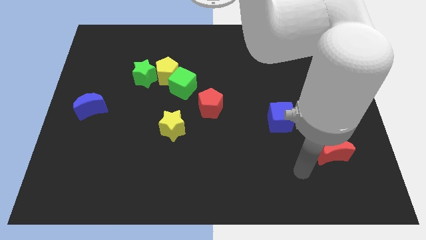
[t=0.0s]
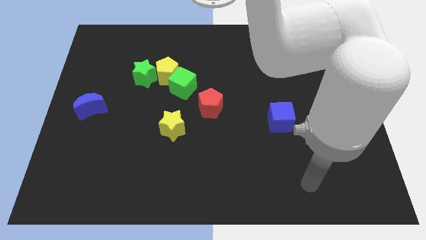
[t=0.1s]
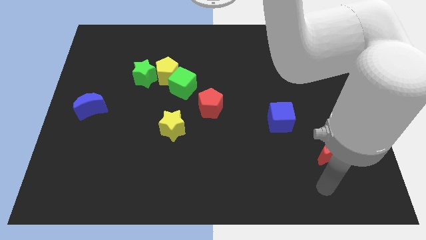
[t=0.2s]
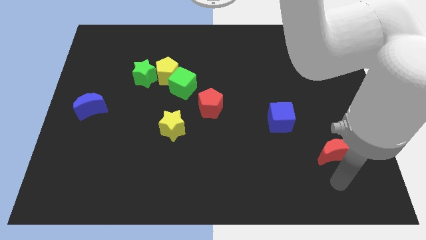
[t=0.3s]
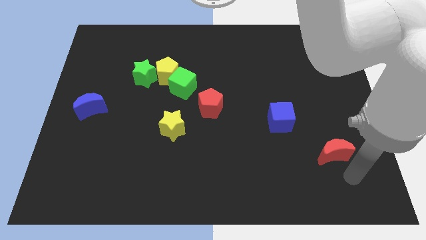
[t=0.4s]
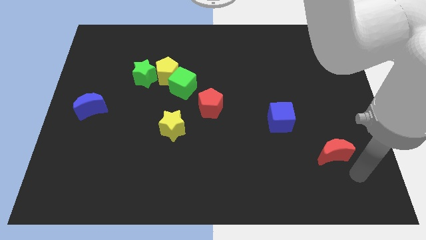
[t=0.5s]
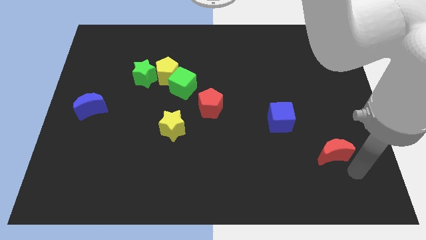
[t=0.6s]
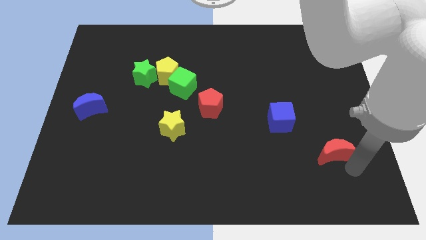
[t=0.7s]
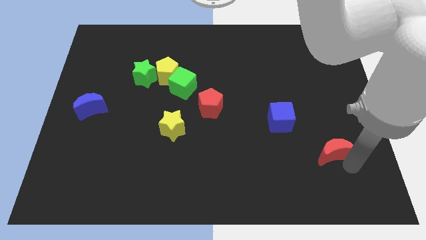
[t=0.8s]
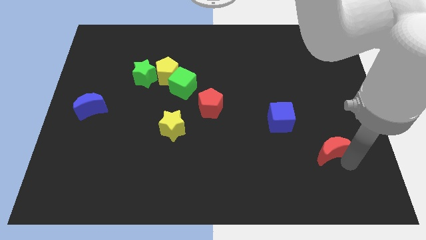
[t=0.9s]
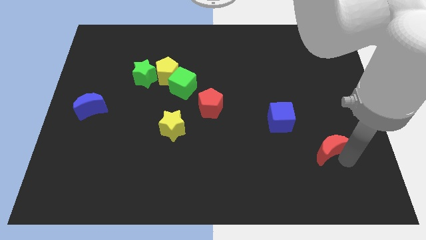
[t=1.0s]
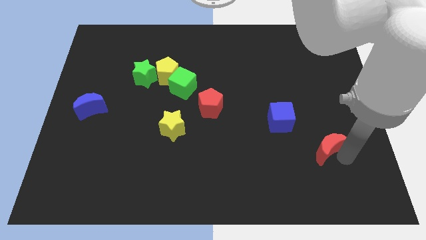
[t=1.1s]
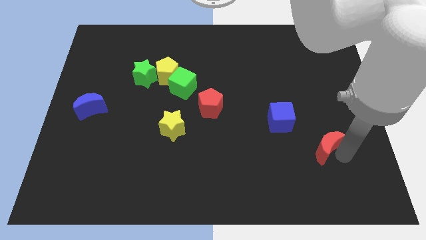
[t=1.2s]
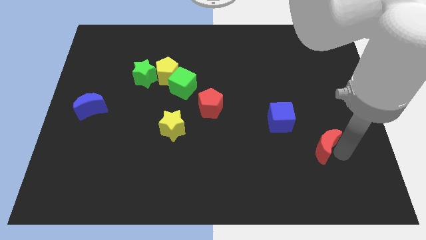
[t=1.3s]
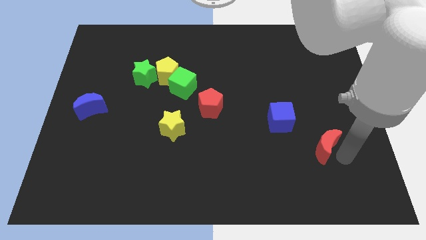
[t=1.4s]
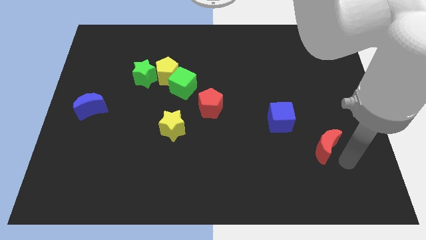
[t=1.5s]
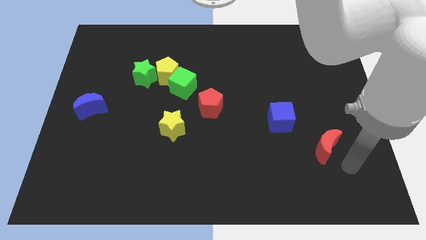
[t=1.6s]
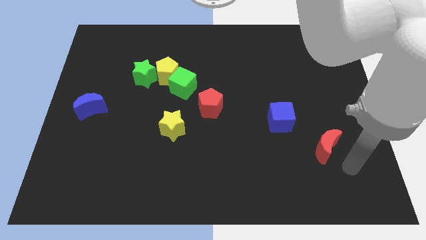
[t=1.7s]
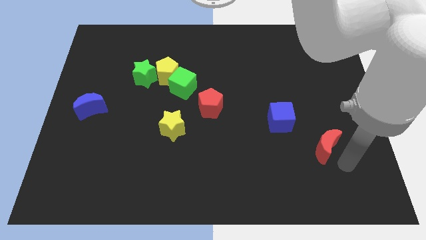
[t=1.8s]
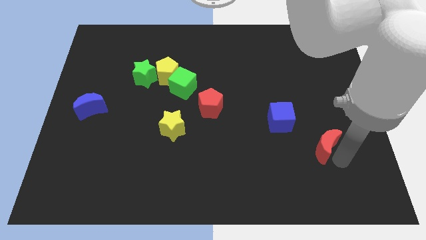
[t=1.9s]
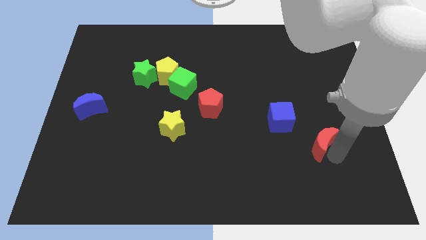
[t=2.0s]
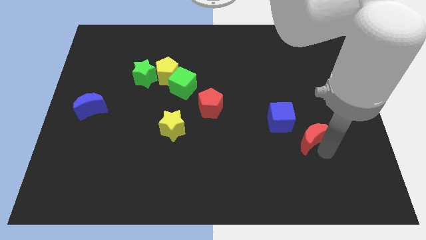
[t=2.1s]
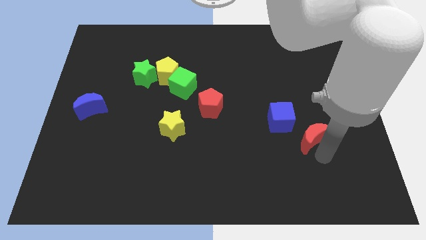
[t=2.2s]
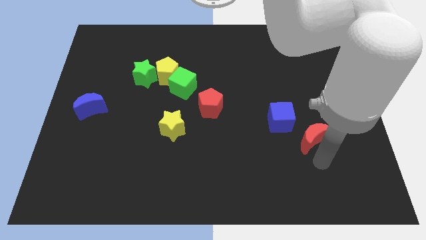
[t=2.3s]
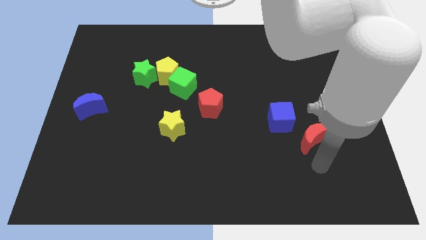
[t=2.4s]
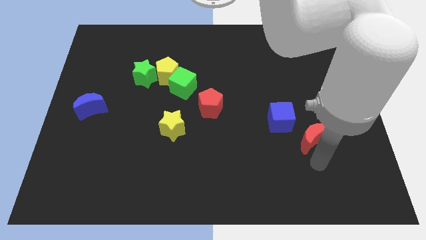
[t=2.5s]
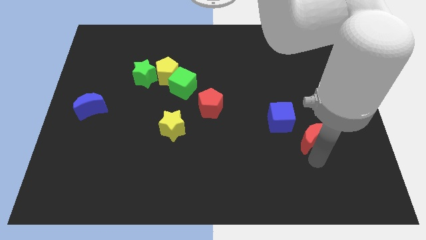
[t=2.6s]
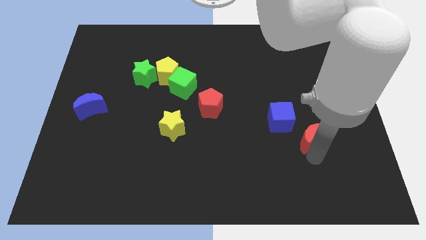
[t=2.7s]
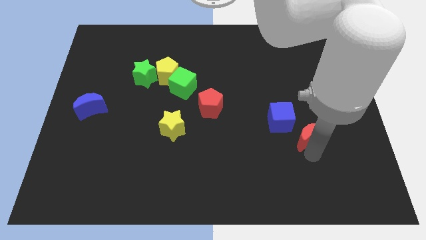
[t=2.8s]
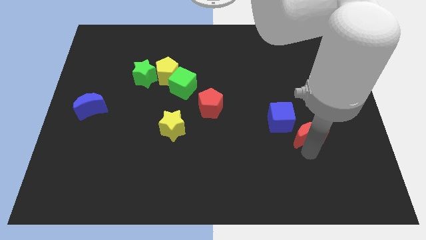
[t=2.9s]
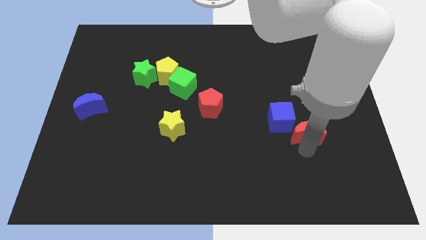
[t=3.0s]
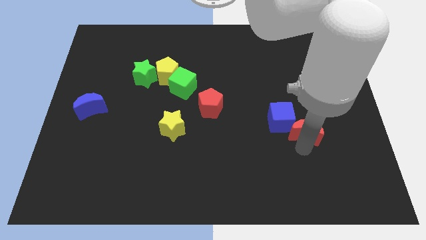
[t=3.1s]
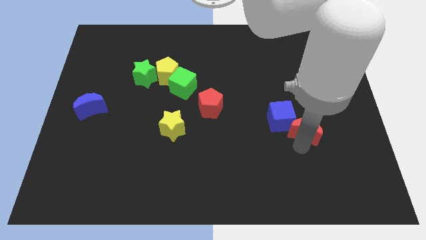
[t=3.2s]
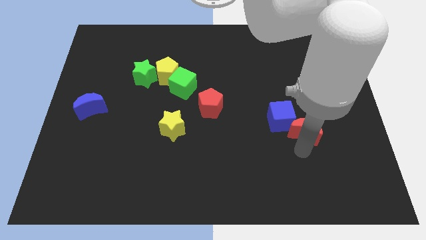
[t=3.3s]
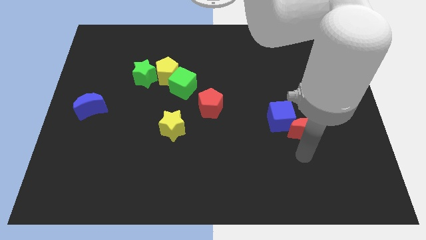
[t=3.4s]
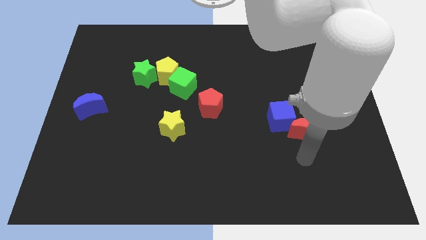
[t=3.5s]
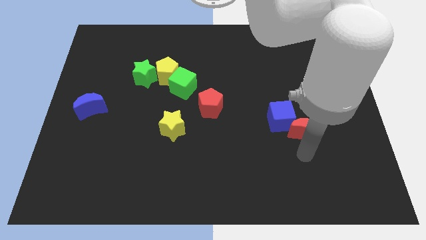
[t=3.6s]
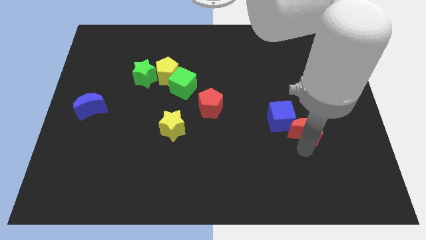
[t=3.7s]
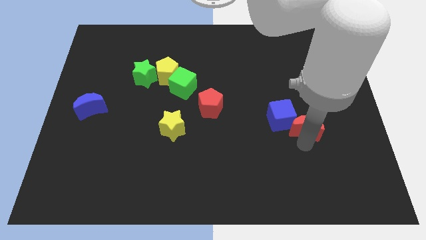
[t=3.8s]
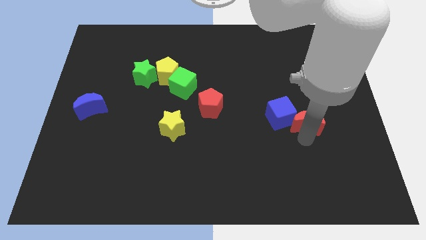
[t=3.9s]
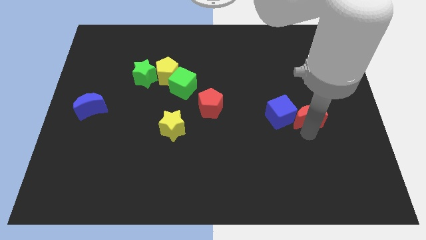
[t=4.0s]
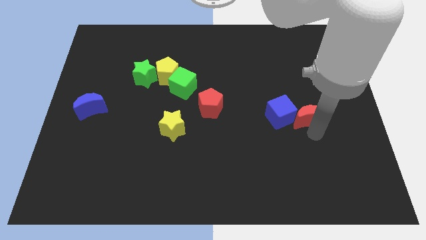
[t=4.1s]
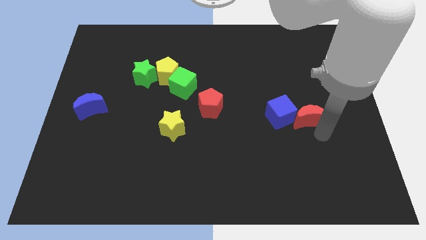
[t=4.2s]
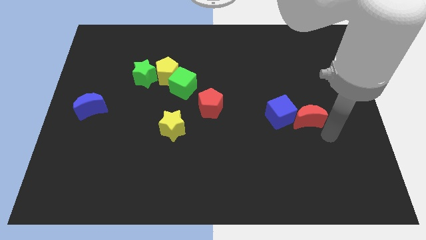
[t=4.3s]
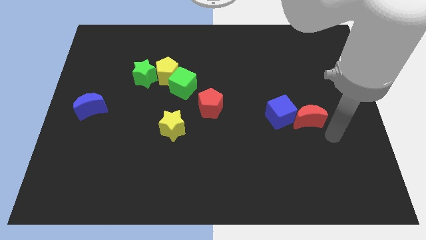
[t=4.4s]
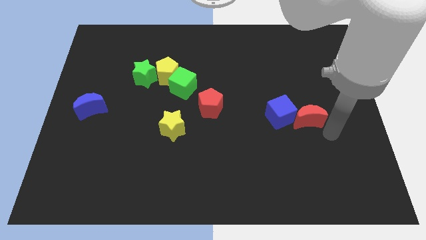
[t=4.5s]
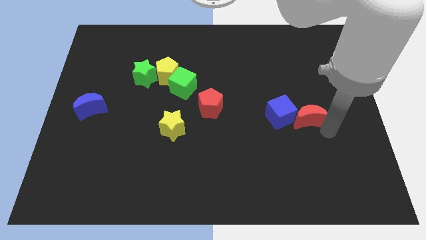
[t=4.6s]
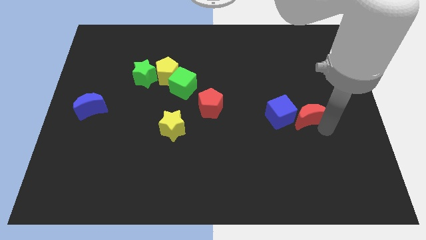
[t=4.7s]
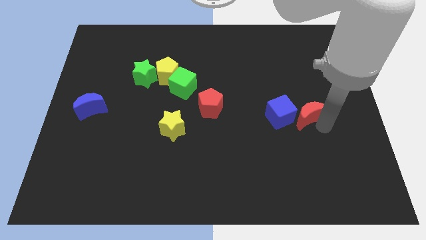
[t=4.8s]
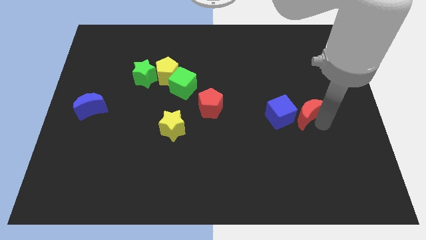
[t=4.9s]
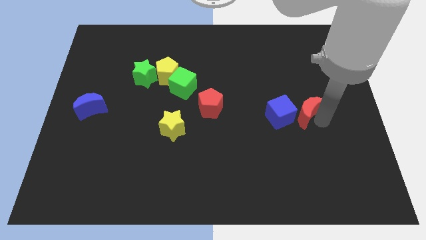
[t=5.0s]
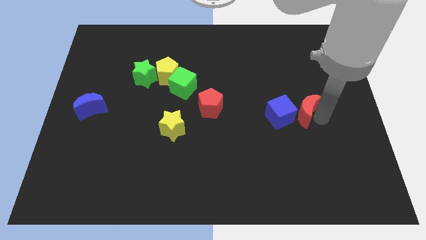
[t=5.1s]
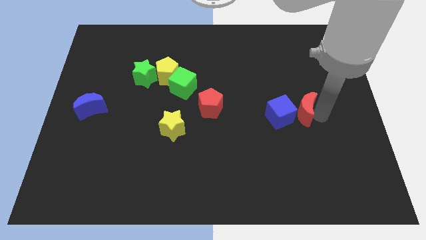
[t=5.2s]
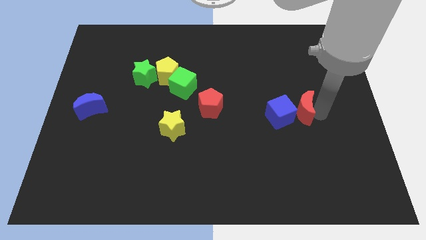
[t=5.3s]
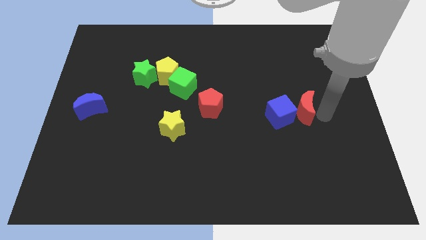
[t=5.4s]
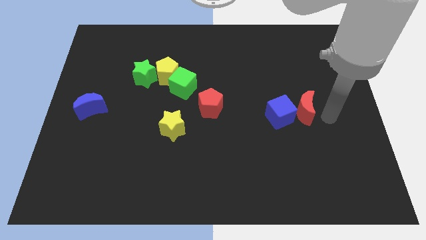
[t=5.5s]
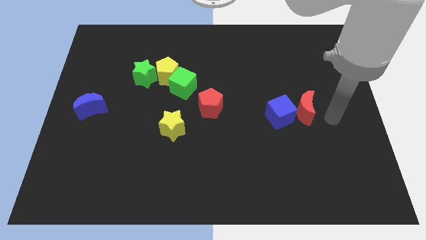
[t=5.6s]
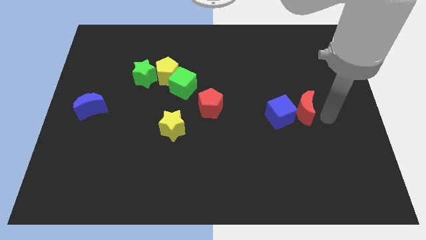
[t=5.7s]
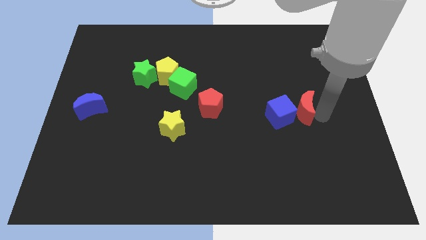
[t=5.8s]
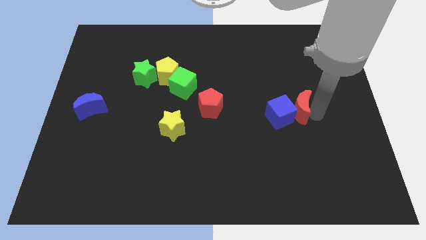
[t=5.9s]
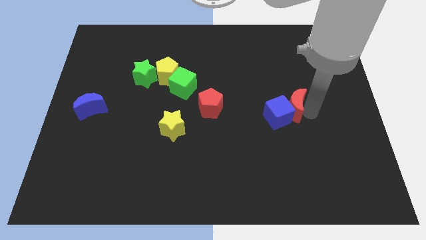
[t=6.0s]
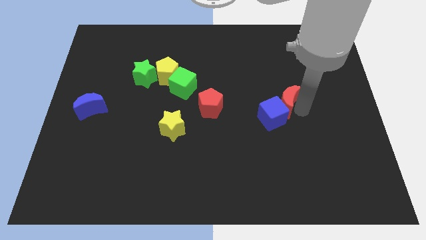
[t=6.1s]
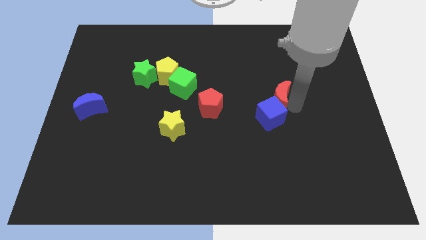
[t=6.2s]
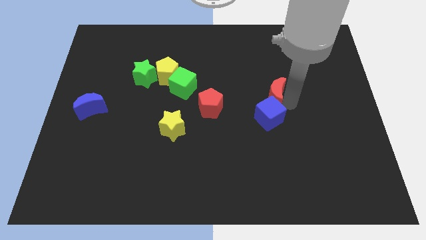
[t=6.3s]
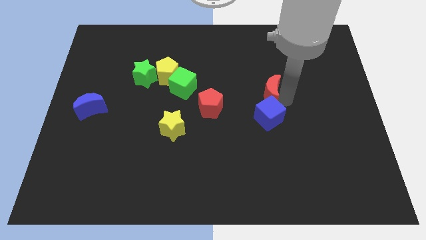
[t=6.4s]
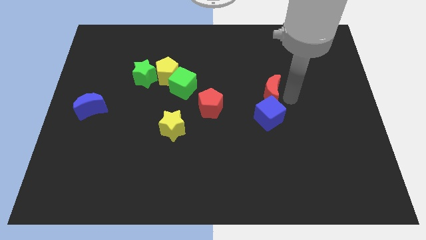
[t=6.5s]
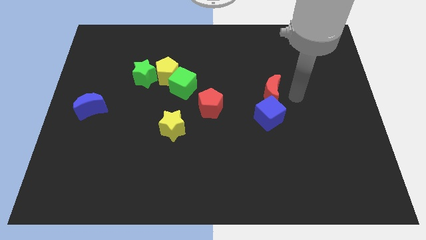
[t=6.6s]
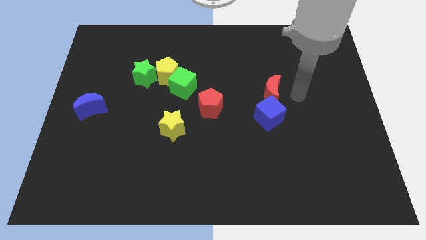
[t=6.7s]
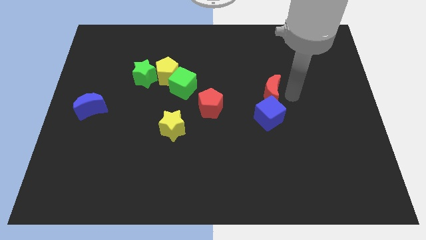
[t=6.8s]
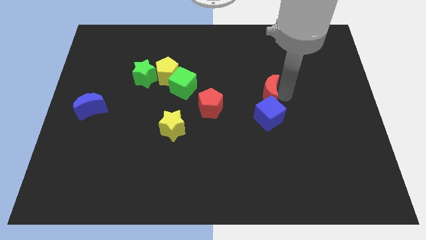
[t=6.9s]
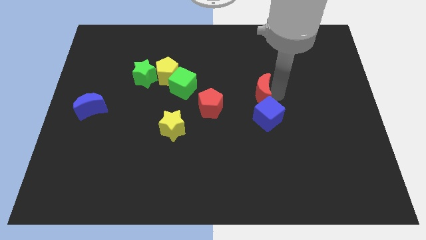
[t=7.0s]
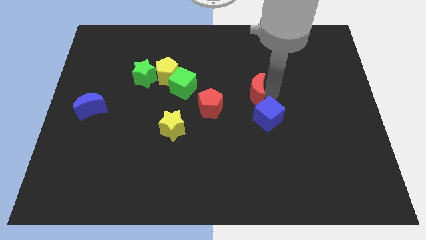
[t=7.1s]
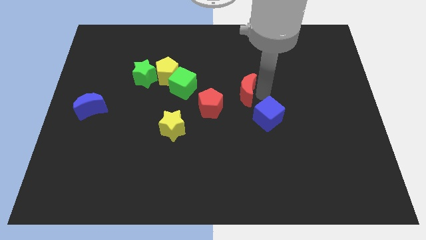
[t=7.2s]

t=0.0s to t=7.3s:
move the red moon to the right side of the green cube
